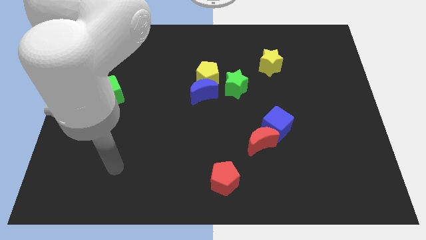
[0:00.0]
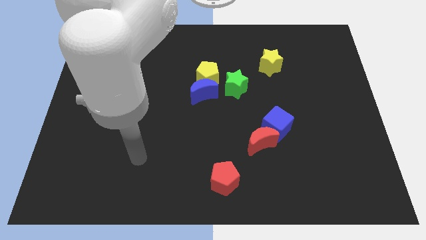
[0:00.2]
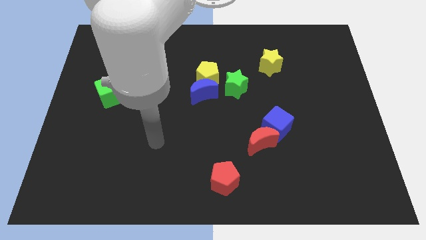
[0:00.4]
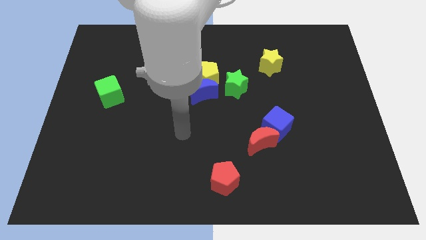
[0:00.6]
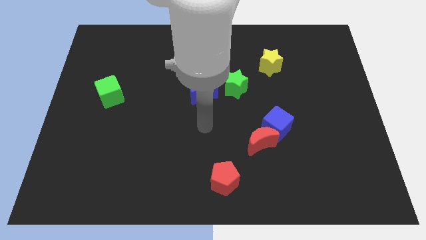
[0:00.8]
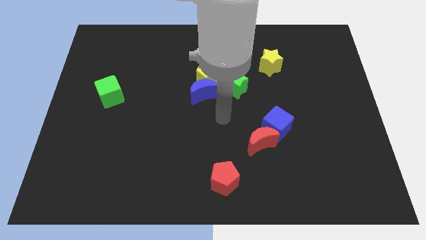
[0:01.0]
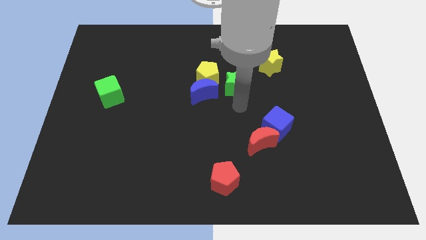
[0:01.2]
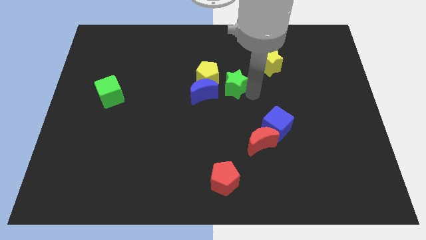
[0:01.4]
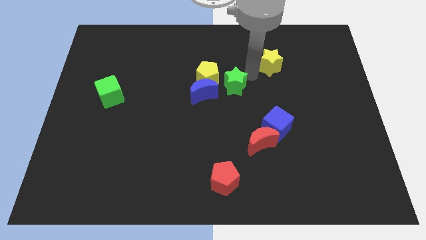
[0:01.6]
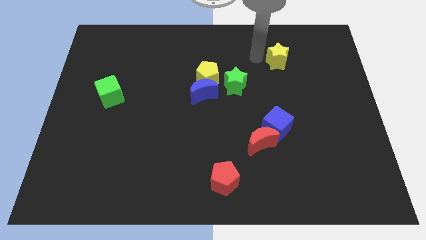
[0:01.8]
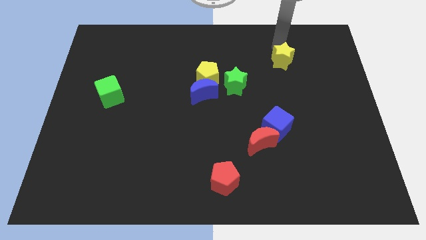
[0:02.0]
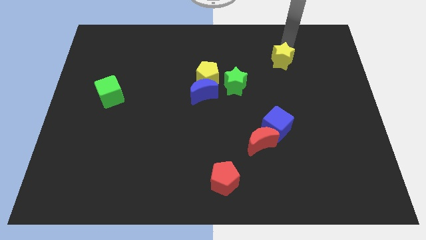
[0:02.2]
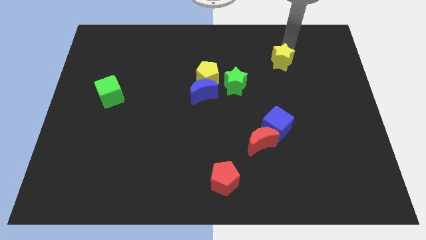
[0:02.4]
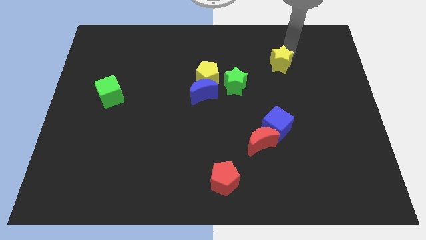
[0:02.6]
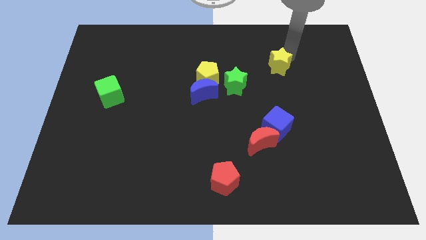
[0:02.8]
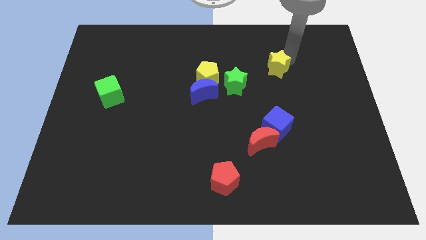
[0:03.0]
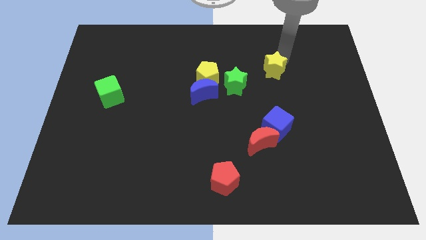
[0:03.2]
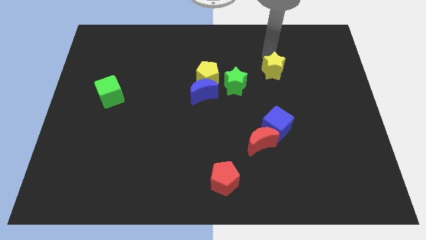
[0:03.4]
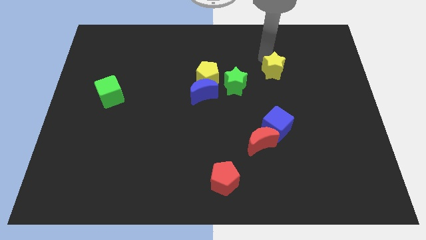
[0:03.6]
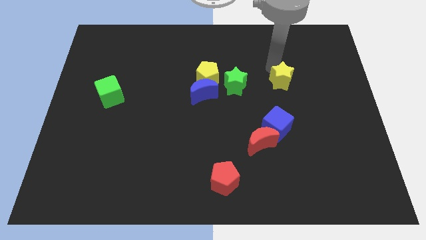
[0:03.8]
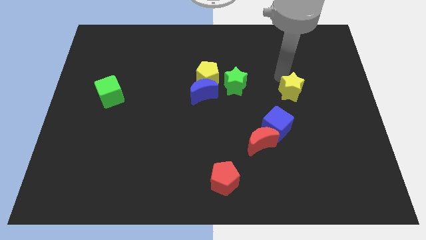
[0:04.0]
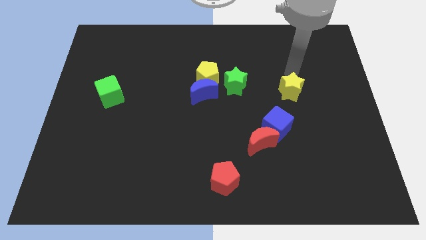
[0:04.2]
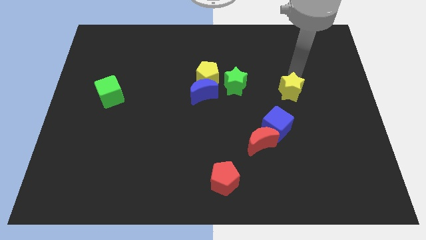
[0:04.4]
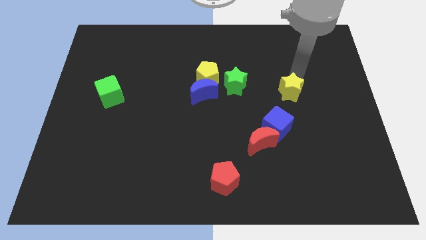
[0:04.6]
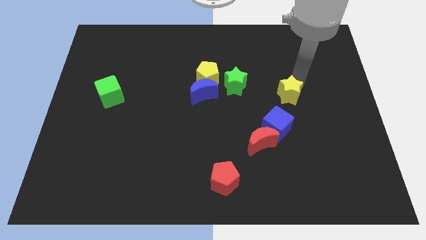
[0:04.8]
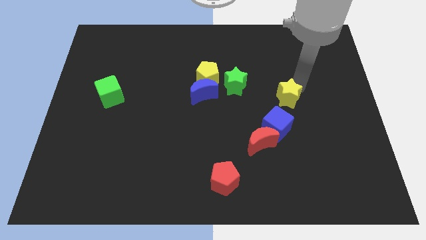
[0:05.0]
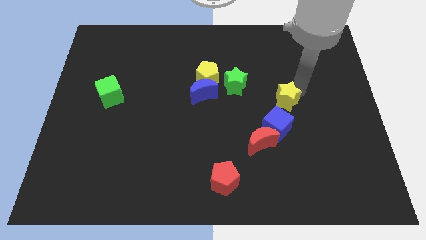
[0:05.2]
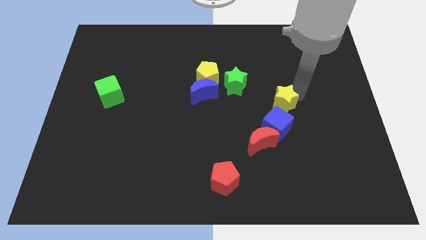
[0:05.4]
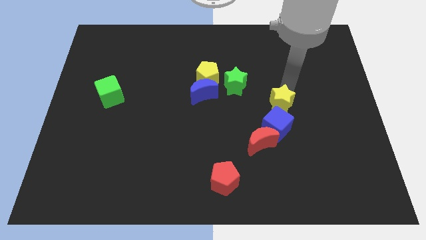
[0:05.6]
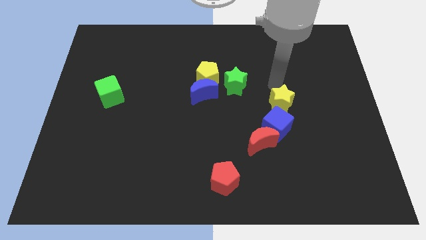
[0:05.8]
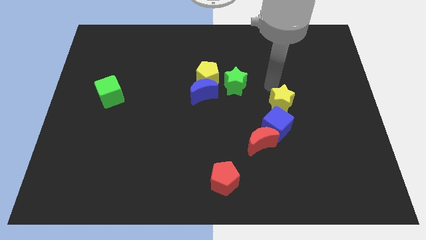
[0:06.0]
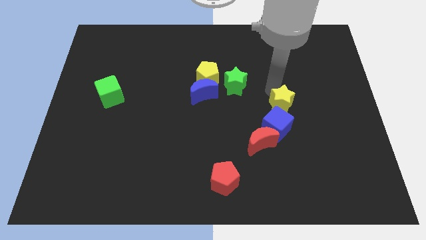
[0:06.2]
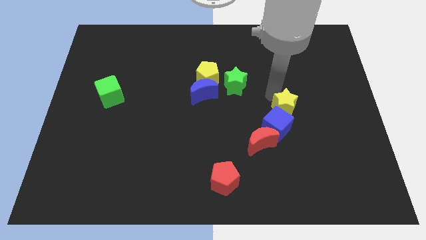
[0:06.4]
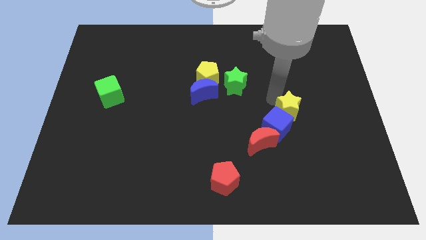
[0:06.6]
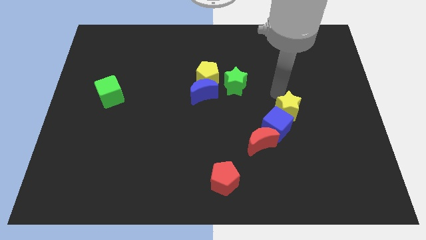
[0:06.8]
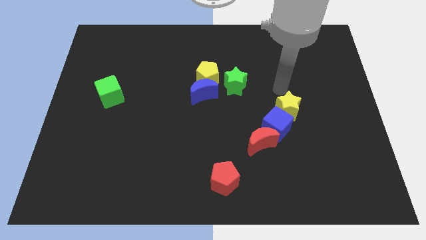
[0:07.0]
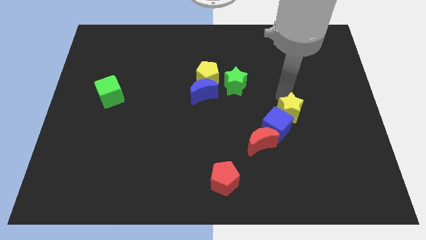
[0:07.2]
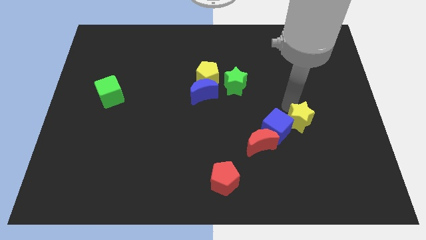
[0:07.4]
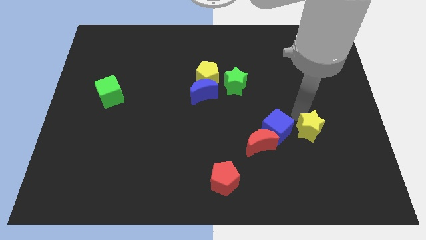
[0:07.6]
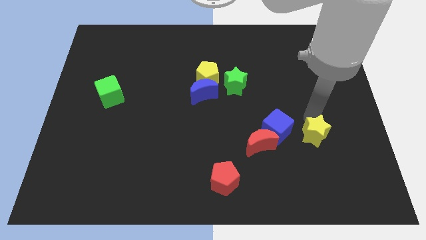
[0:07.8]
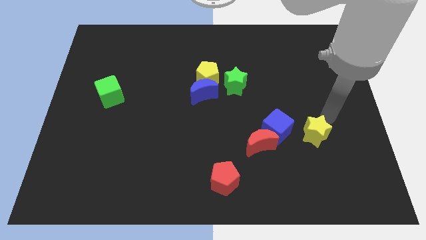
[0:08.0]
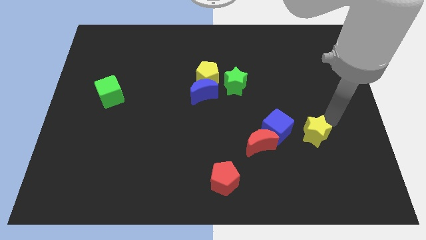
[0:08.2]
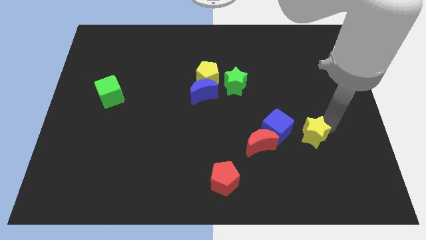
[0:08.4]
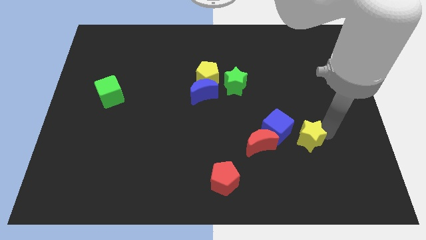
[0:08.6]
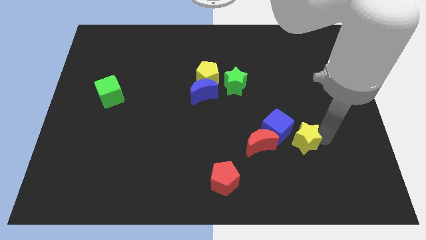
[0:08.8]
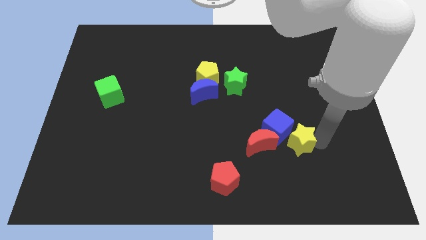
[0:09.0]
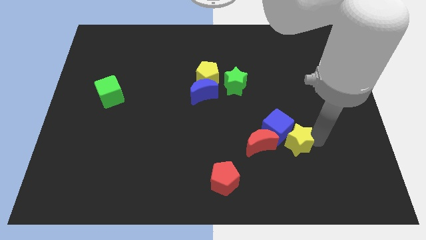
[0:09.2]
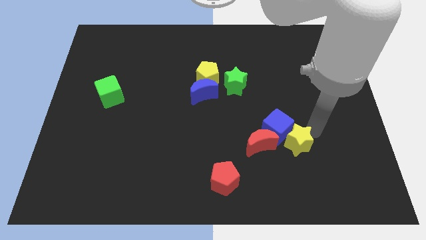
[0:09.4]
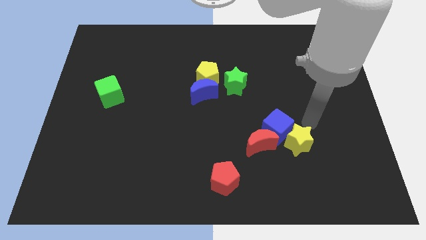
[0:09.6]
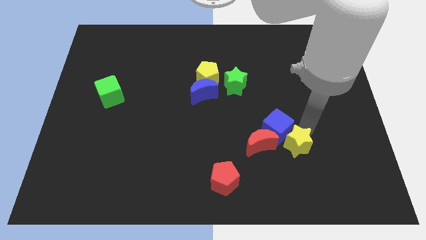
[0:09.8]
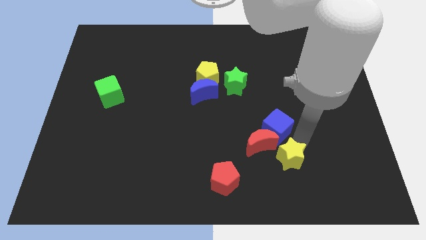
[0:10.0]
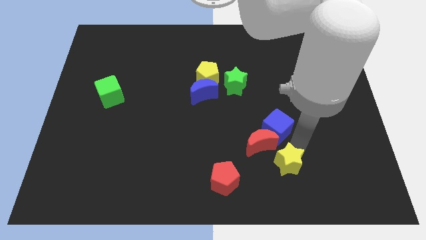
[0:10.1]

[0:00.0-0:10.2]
push the yellow star just right of the red pentagon

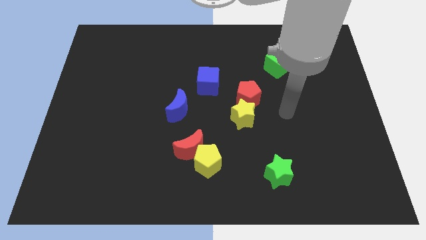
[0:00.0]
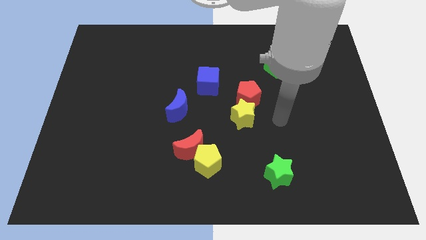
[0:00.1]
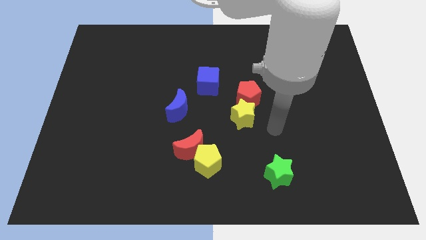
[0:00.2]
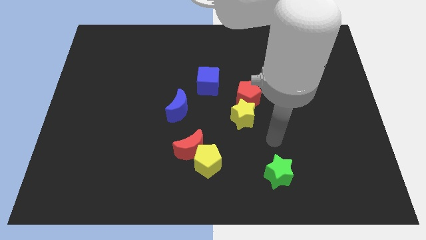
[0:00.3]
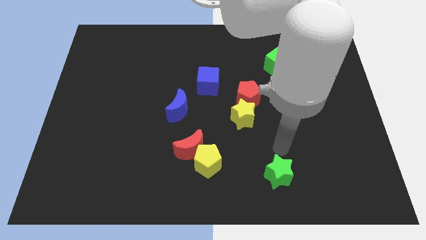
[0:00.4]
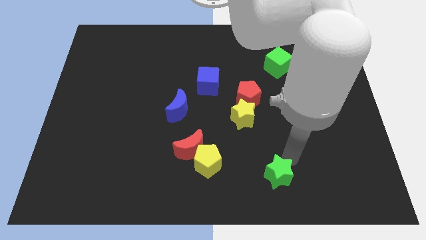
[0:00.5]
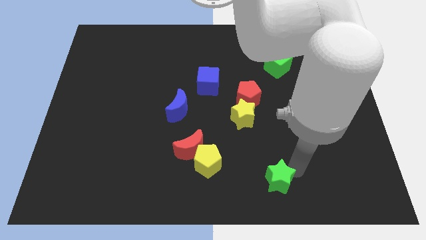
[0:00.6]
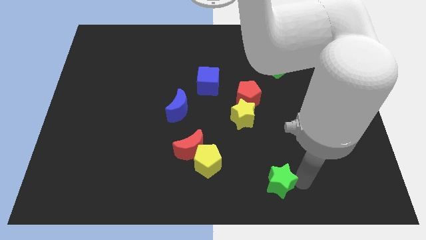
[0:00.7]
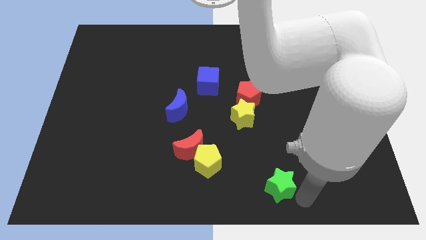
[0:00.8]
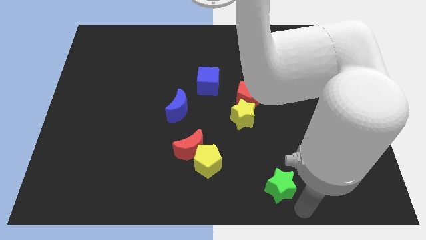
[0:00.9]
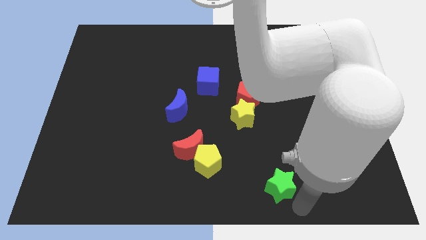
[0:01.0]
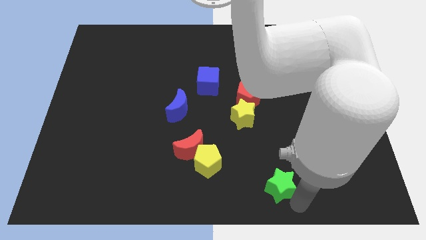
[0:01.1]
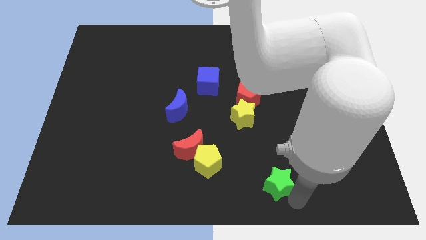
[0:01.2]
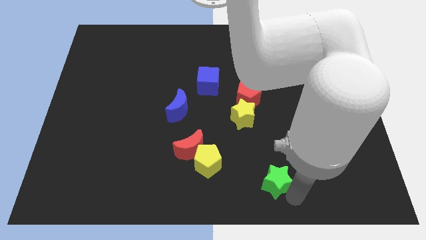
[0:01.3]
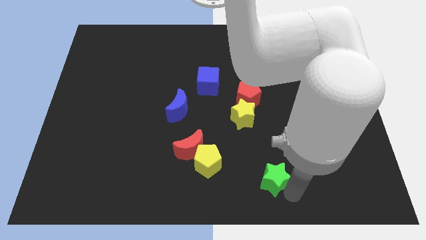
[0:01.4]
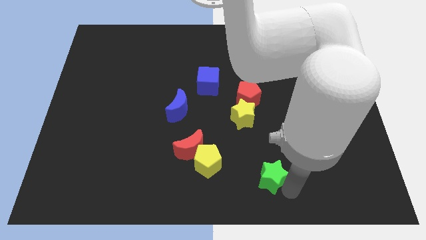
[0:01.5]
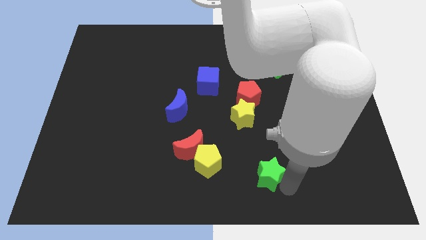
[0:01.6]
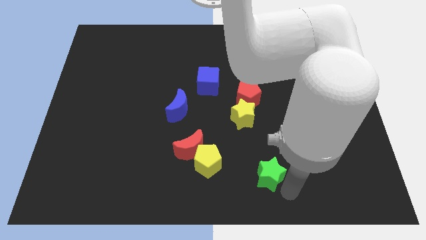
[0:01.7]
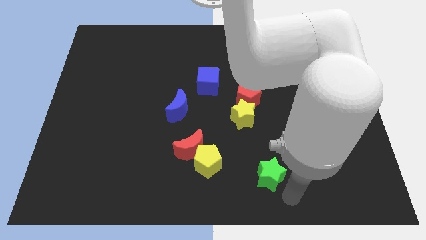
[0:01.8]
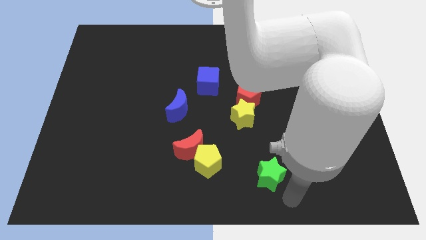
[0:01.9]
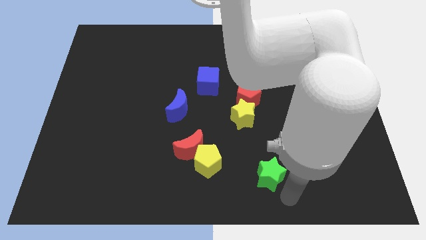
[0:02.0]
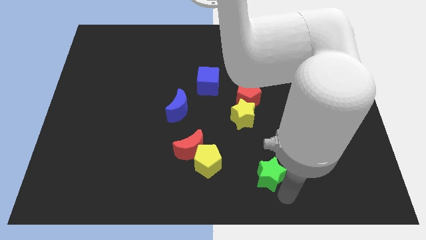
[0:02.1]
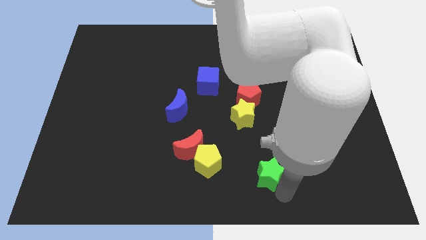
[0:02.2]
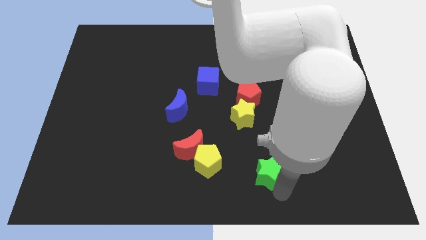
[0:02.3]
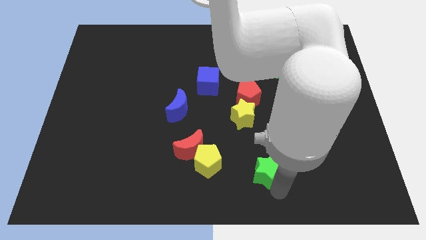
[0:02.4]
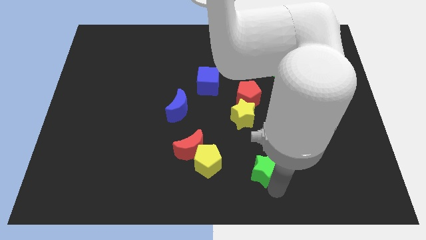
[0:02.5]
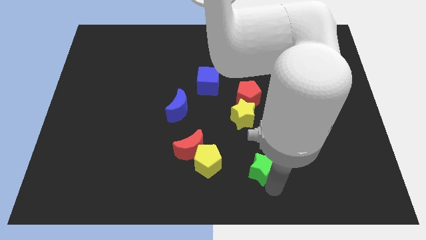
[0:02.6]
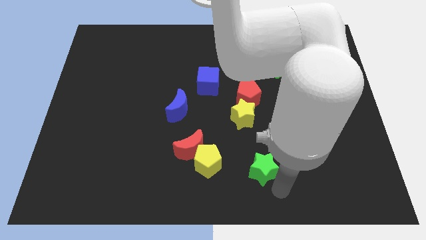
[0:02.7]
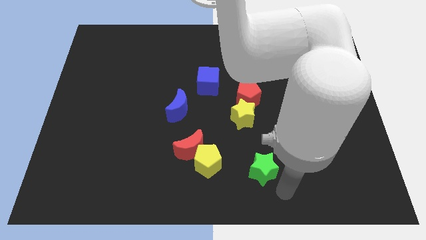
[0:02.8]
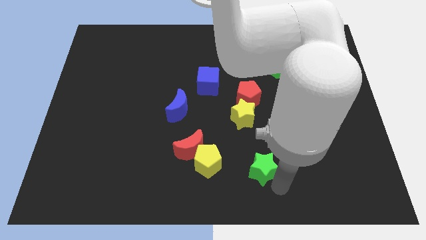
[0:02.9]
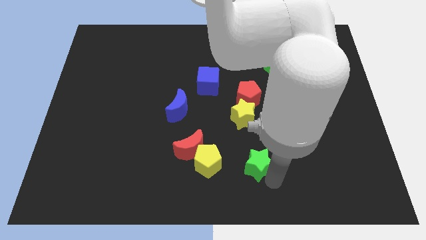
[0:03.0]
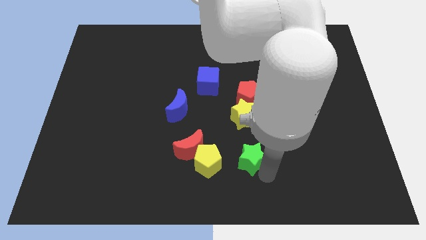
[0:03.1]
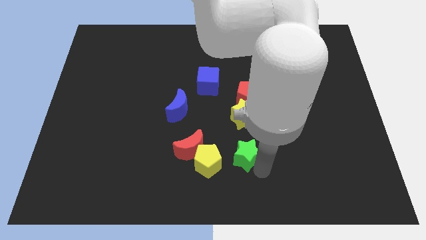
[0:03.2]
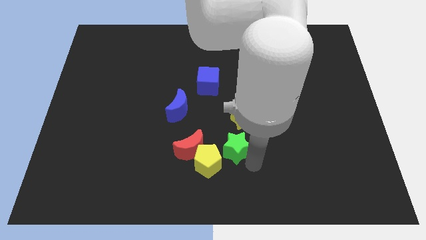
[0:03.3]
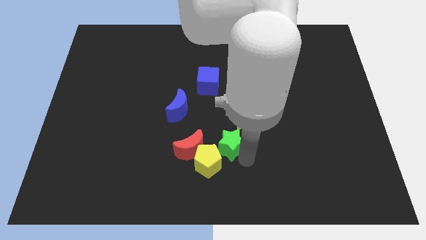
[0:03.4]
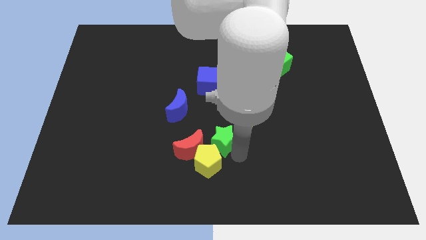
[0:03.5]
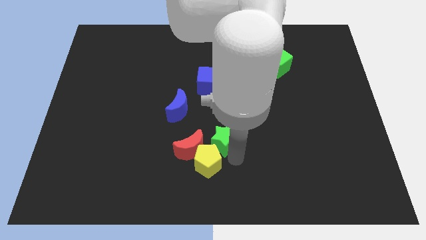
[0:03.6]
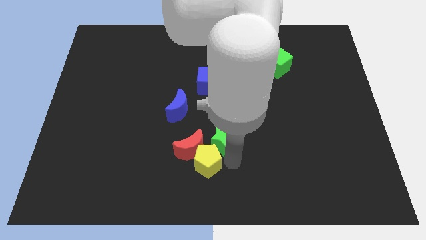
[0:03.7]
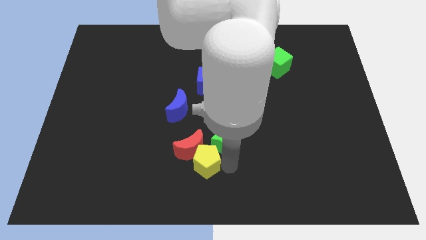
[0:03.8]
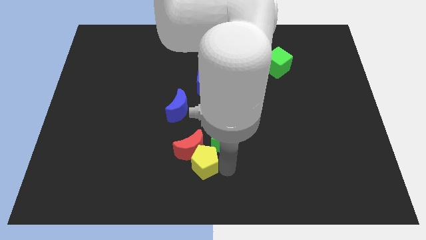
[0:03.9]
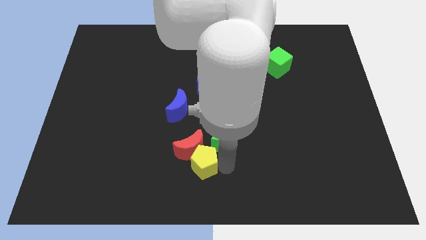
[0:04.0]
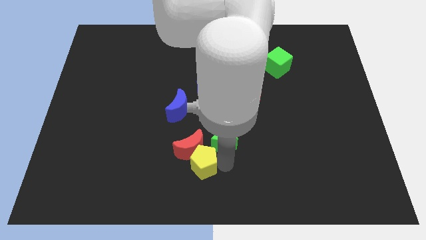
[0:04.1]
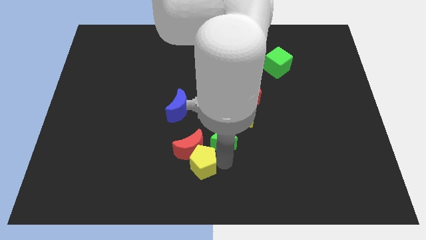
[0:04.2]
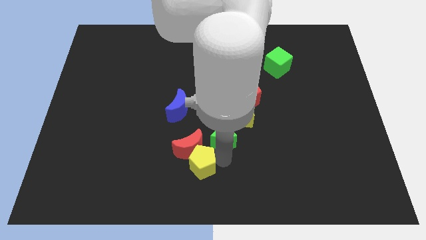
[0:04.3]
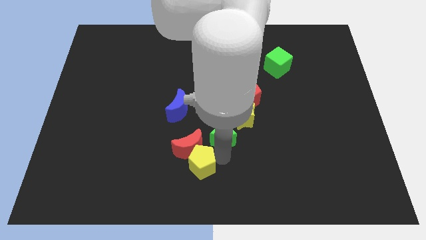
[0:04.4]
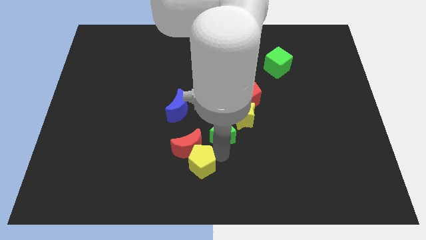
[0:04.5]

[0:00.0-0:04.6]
put the green star to the bottom side of the blue cube
